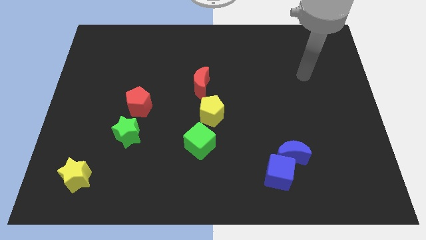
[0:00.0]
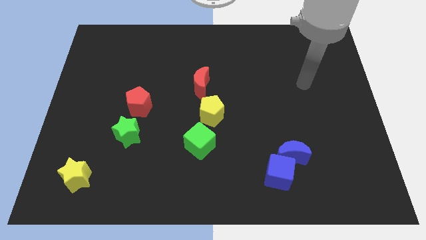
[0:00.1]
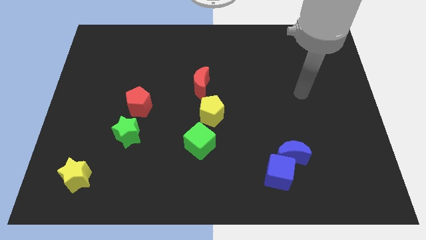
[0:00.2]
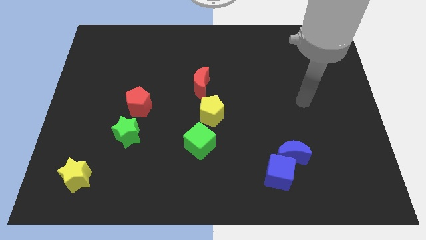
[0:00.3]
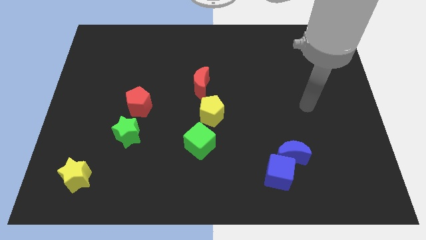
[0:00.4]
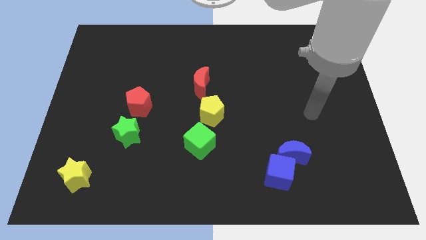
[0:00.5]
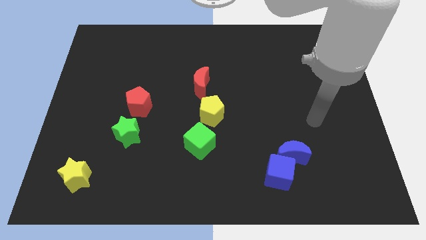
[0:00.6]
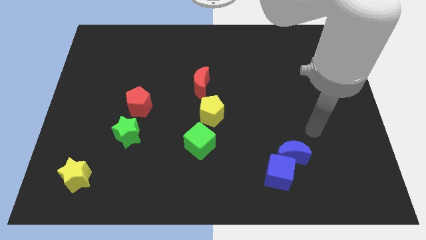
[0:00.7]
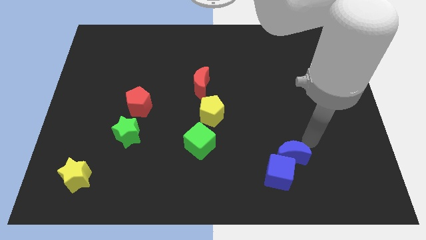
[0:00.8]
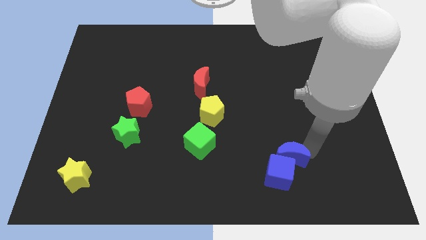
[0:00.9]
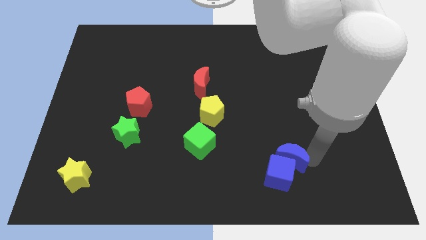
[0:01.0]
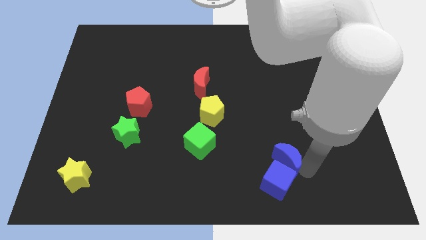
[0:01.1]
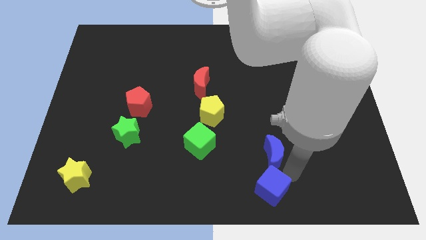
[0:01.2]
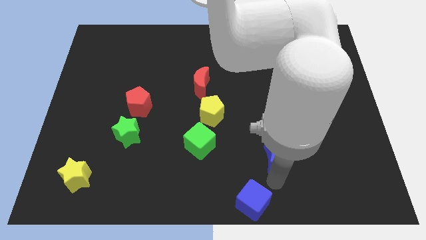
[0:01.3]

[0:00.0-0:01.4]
pull the blue moon apart from the blue cube

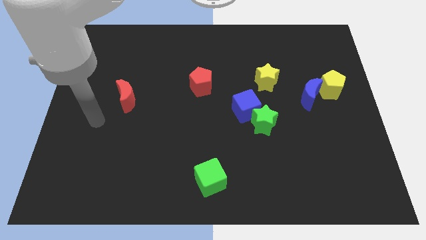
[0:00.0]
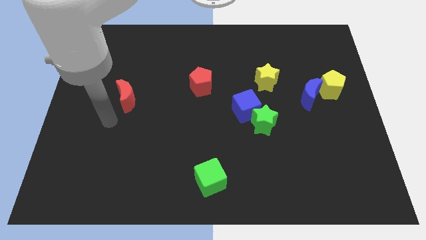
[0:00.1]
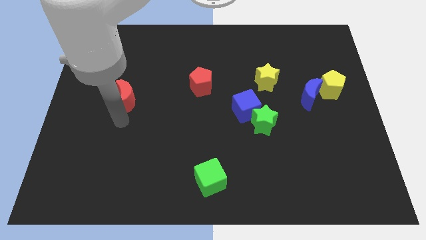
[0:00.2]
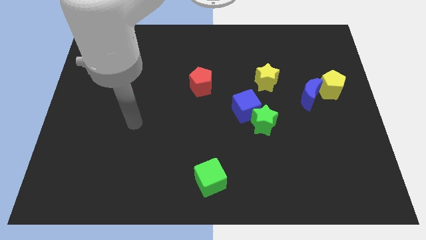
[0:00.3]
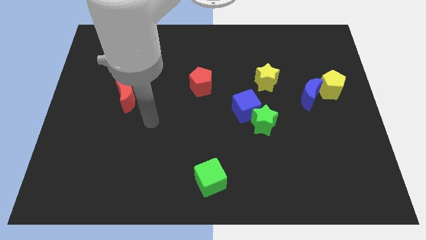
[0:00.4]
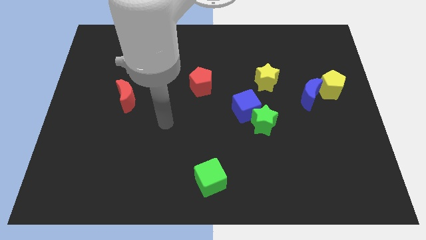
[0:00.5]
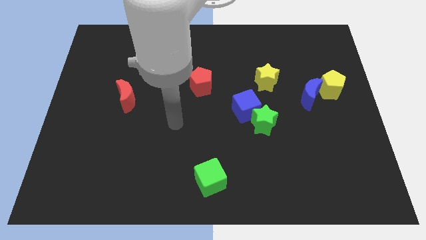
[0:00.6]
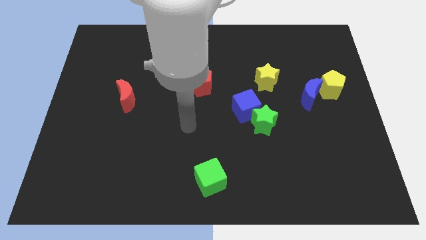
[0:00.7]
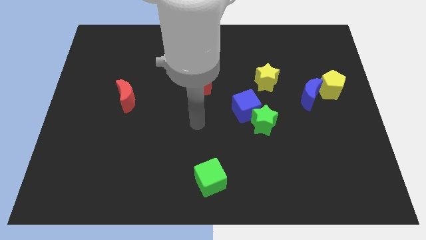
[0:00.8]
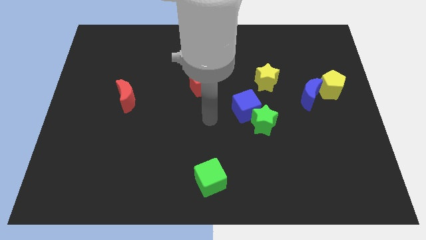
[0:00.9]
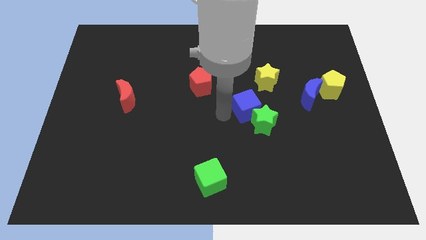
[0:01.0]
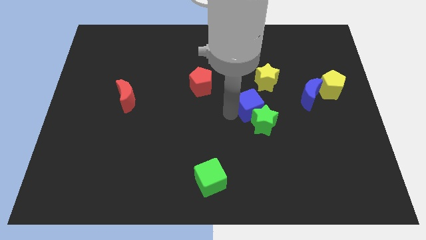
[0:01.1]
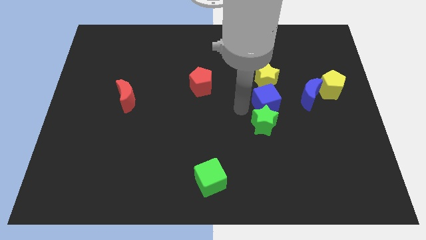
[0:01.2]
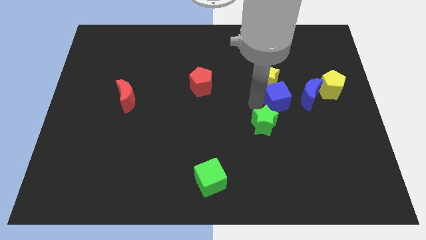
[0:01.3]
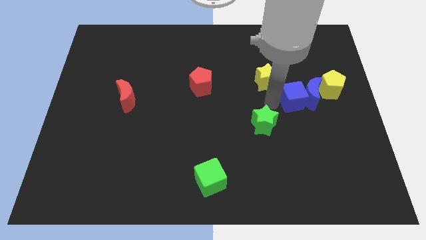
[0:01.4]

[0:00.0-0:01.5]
separate the green star from the blue cube

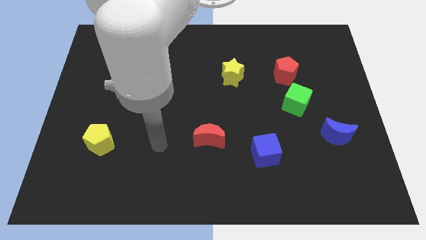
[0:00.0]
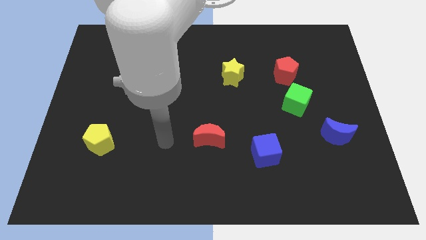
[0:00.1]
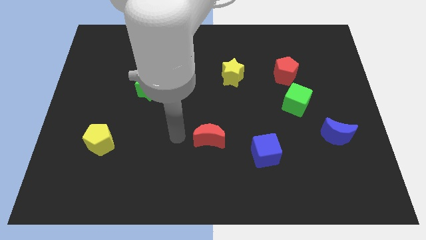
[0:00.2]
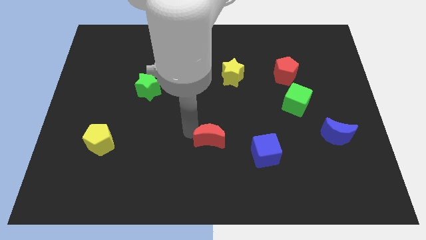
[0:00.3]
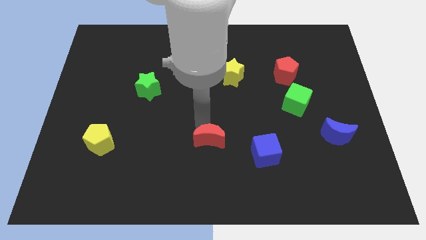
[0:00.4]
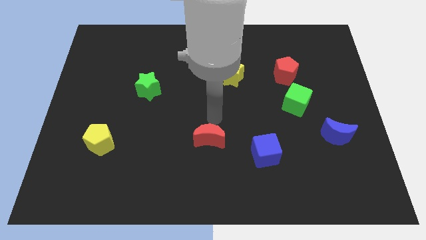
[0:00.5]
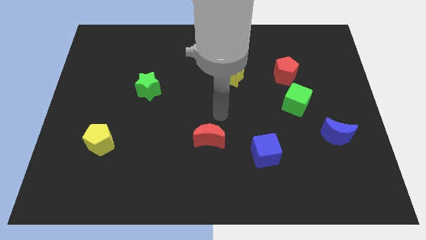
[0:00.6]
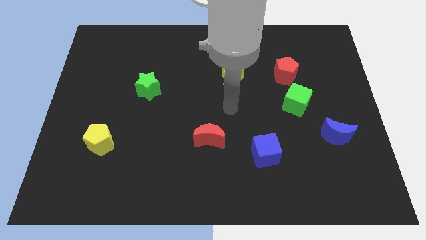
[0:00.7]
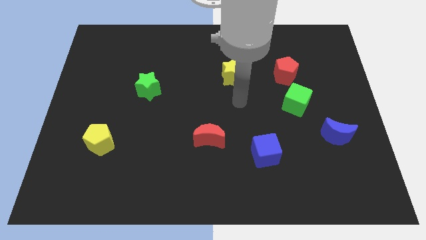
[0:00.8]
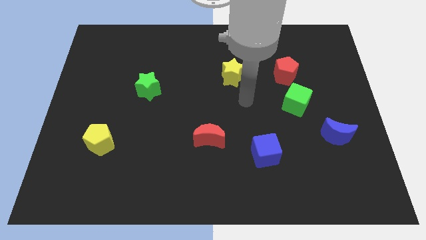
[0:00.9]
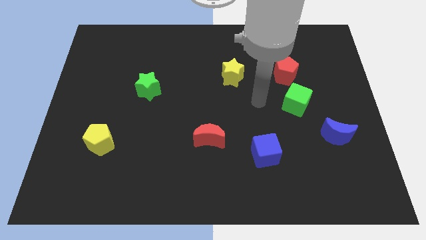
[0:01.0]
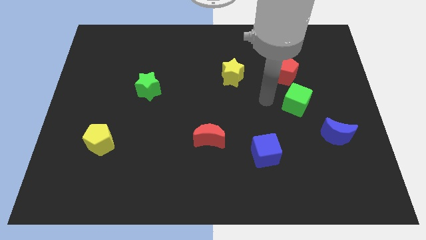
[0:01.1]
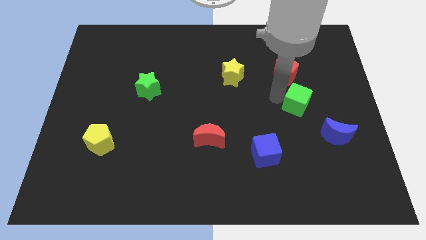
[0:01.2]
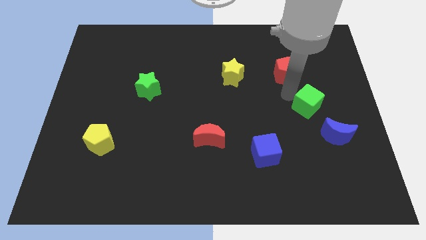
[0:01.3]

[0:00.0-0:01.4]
move the red pentagon away from the green cube

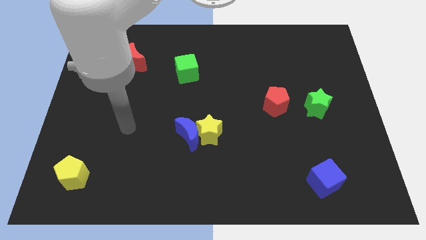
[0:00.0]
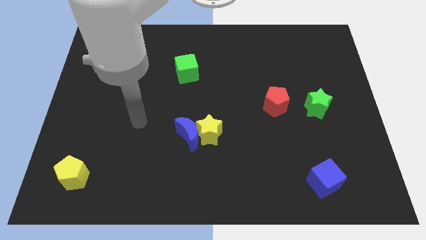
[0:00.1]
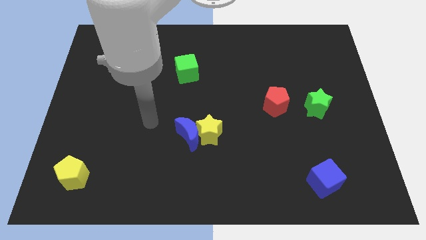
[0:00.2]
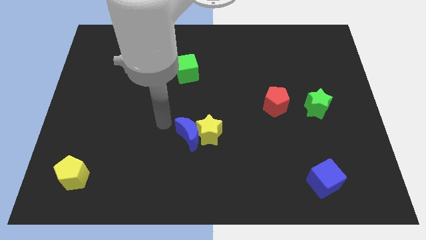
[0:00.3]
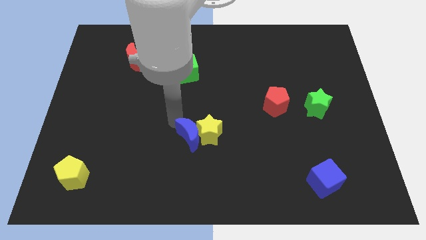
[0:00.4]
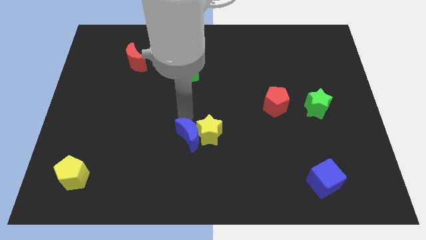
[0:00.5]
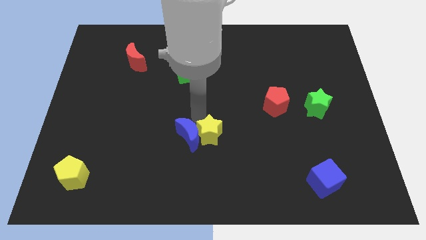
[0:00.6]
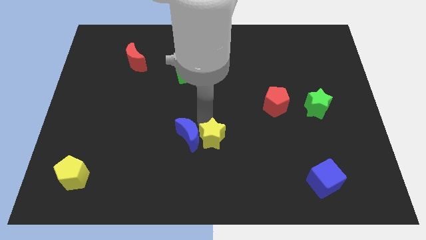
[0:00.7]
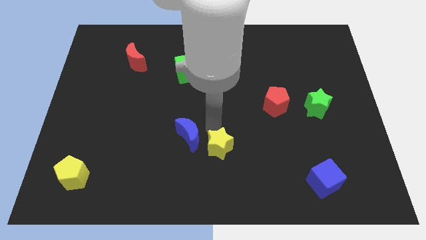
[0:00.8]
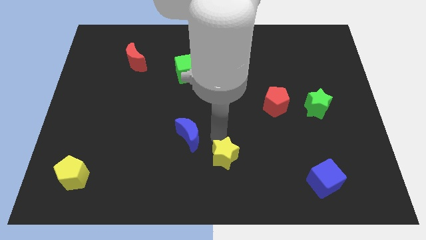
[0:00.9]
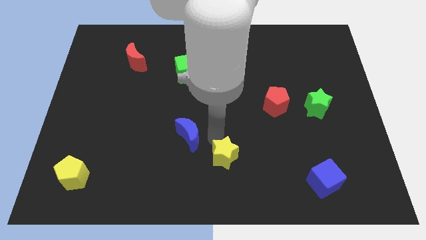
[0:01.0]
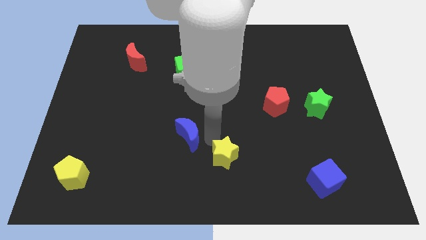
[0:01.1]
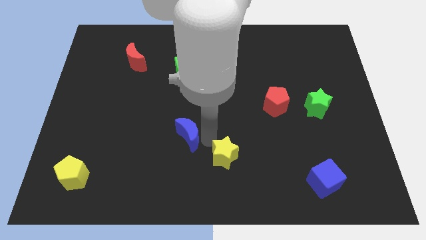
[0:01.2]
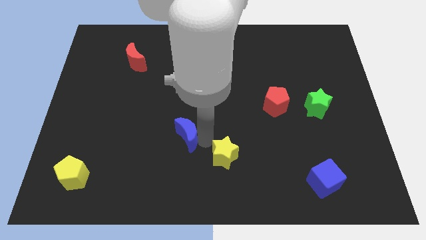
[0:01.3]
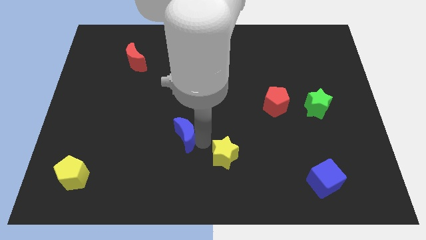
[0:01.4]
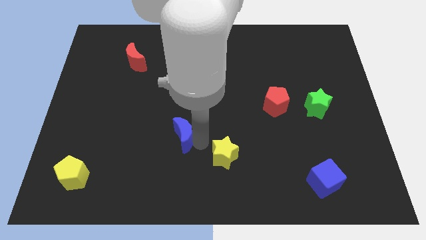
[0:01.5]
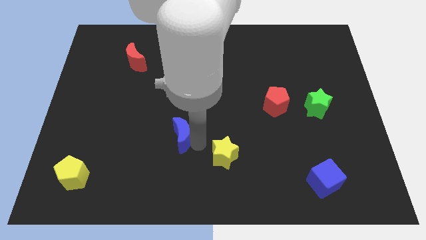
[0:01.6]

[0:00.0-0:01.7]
separate the blue moon from the yellow star

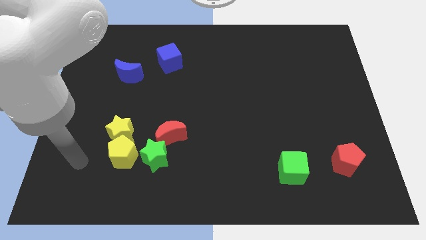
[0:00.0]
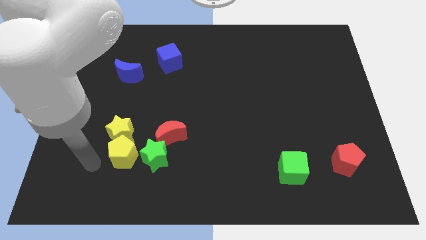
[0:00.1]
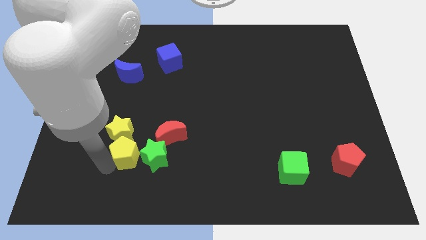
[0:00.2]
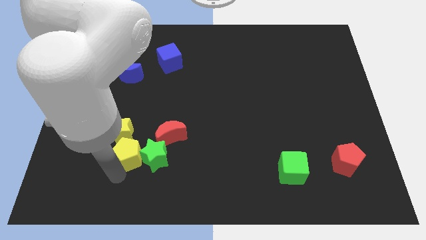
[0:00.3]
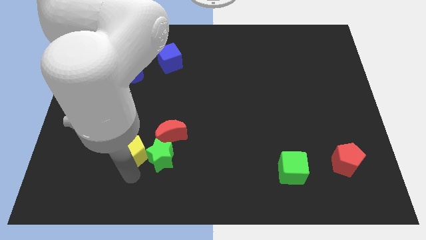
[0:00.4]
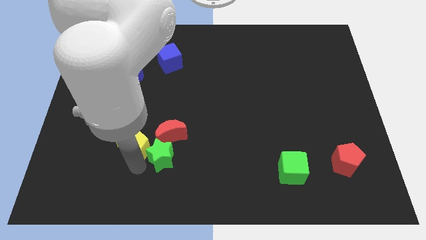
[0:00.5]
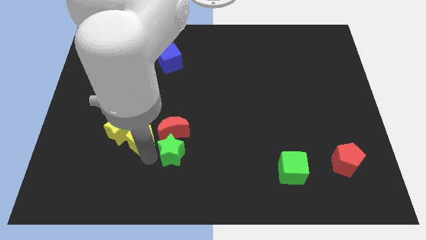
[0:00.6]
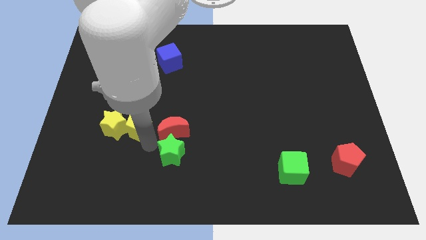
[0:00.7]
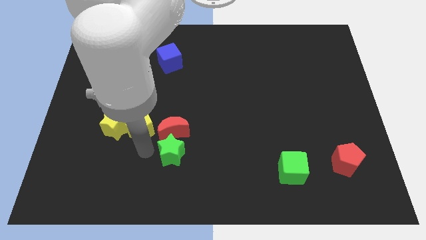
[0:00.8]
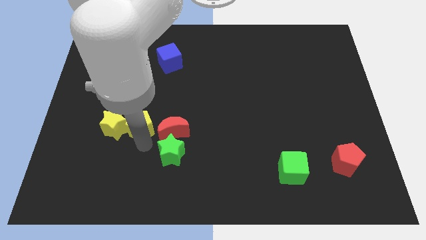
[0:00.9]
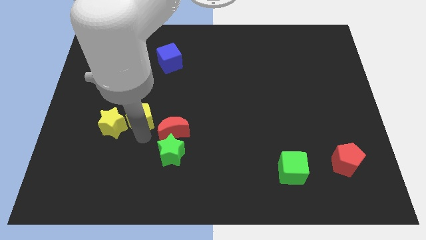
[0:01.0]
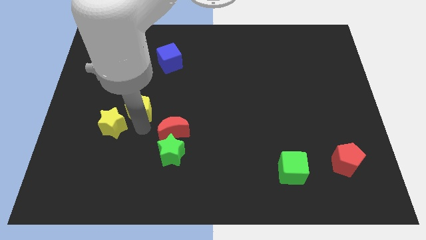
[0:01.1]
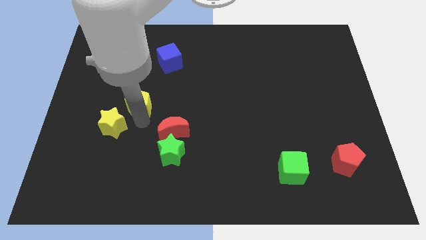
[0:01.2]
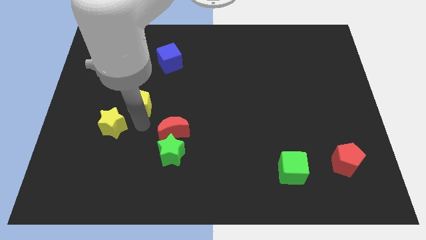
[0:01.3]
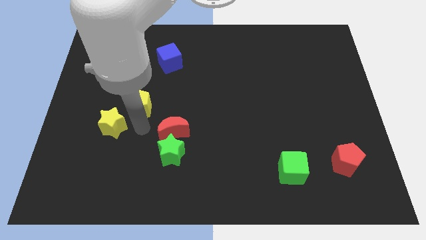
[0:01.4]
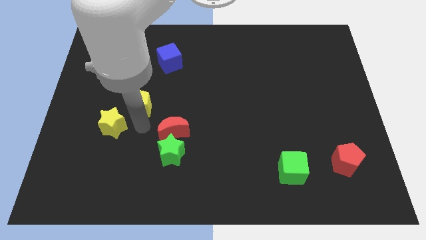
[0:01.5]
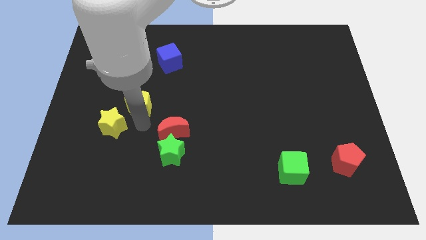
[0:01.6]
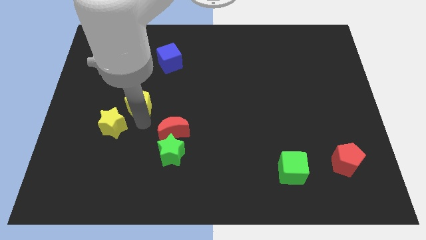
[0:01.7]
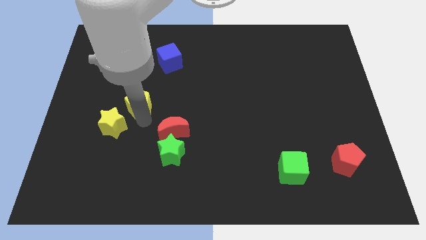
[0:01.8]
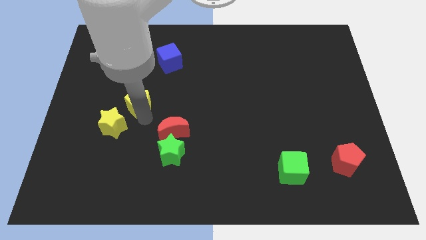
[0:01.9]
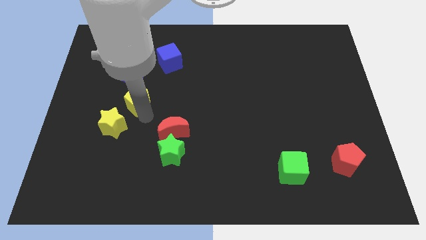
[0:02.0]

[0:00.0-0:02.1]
move the yellow pentagon away from the yellow star and green star

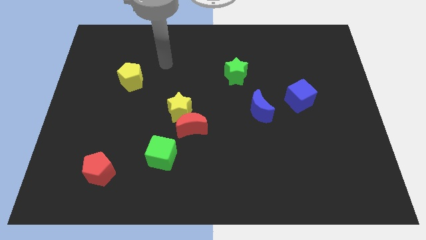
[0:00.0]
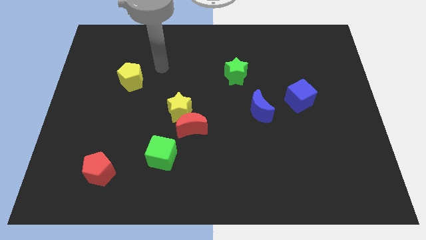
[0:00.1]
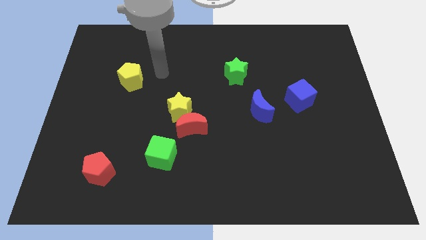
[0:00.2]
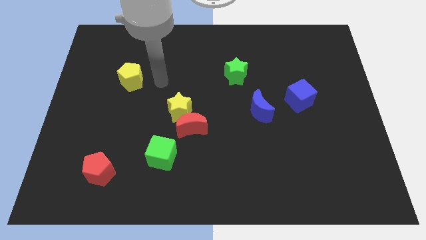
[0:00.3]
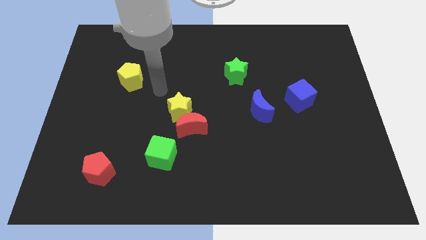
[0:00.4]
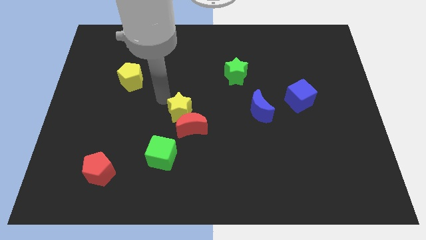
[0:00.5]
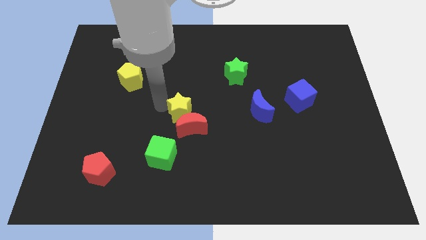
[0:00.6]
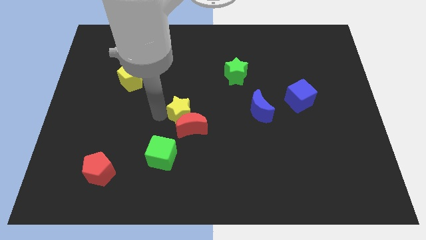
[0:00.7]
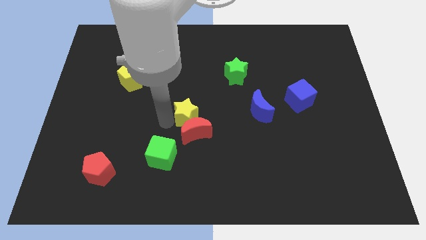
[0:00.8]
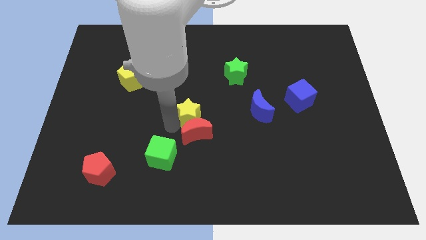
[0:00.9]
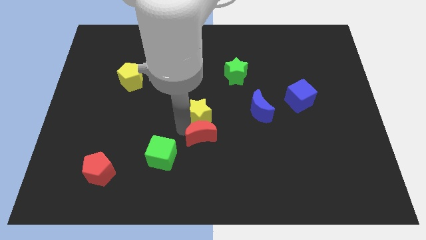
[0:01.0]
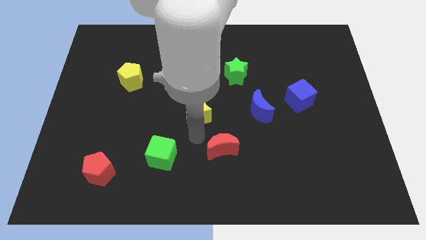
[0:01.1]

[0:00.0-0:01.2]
move the yellow star away from the red moon
